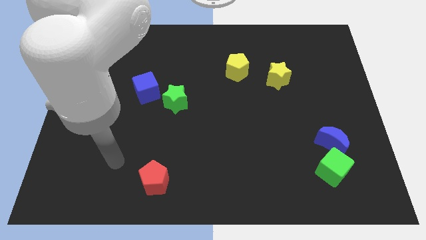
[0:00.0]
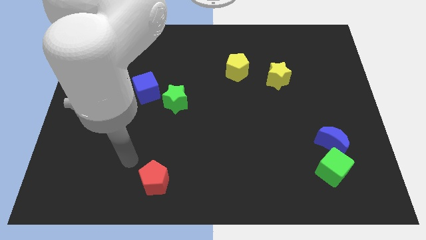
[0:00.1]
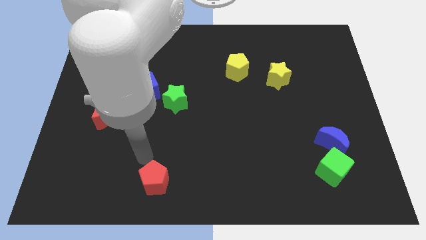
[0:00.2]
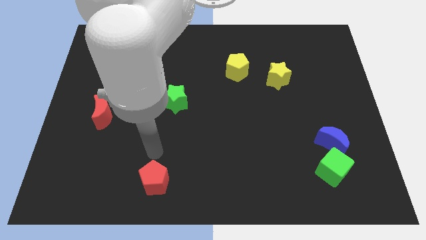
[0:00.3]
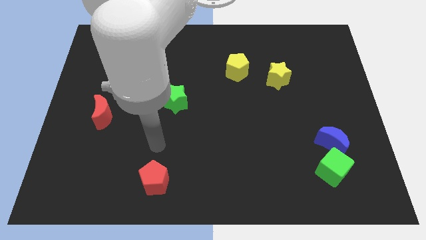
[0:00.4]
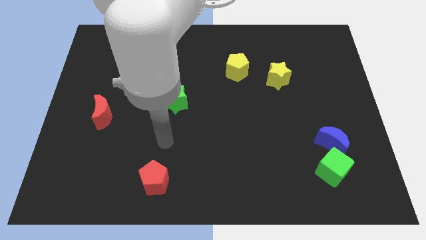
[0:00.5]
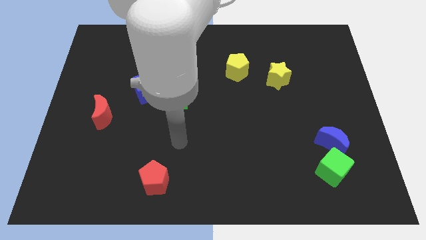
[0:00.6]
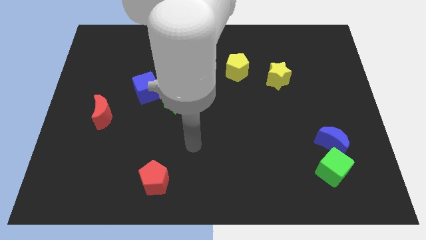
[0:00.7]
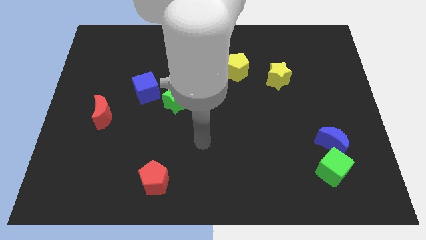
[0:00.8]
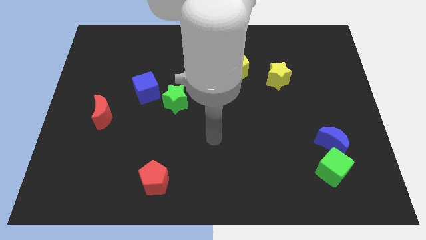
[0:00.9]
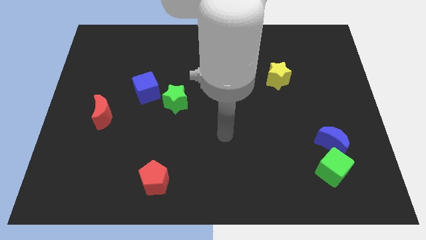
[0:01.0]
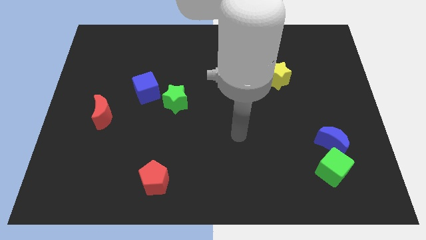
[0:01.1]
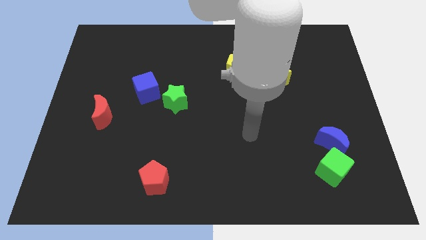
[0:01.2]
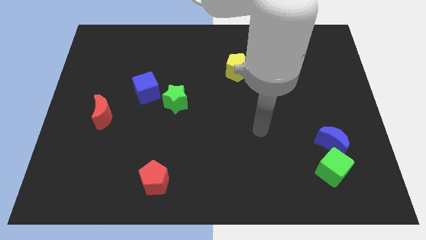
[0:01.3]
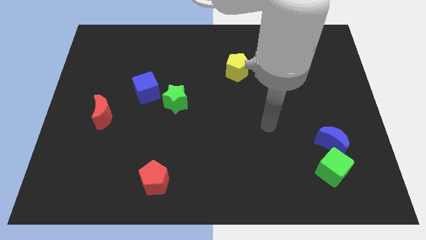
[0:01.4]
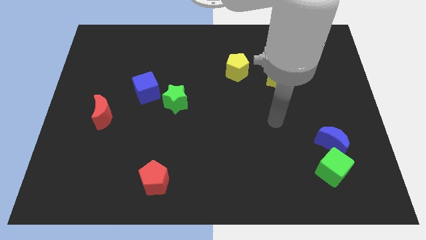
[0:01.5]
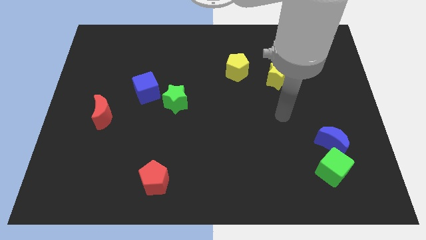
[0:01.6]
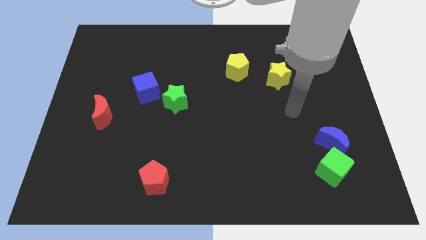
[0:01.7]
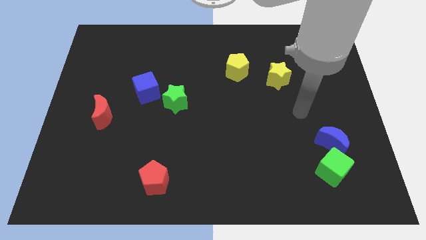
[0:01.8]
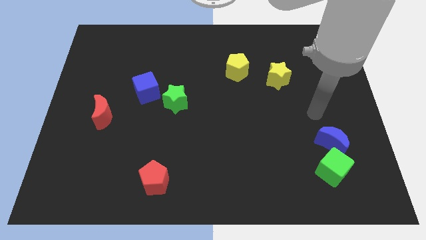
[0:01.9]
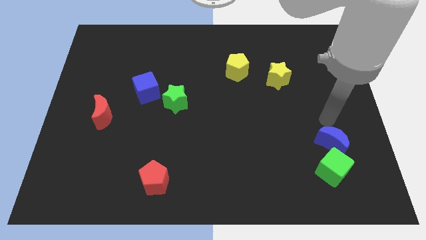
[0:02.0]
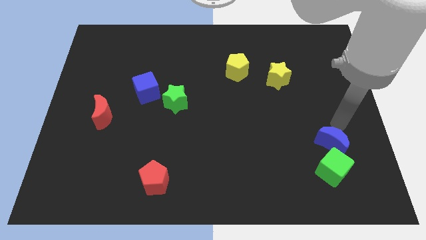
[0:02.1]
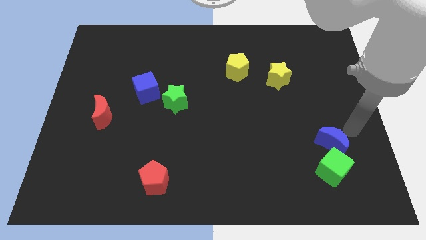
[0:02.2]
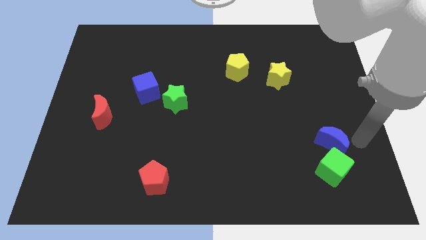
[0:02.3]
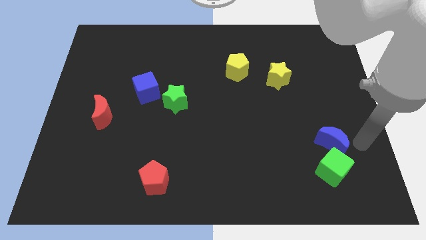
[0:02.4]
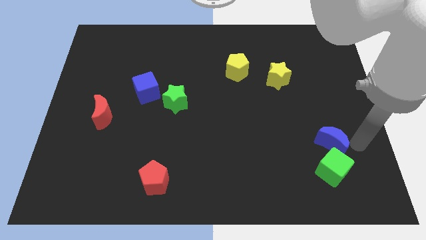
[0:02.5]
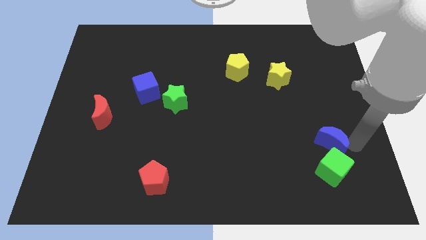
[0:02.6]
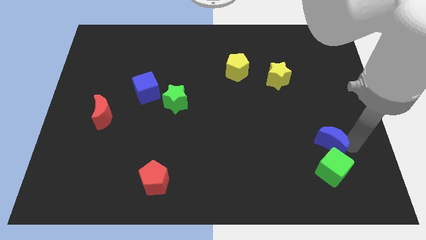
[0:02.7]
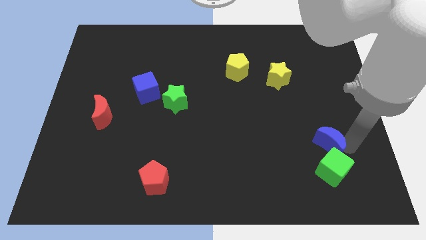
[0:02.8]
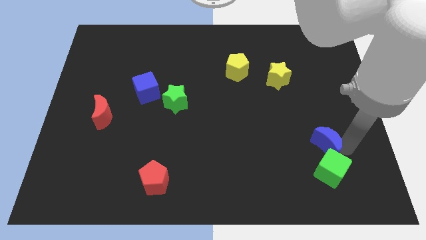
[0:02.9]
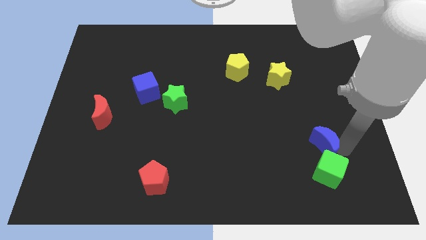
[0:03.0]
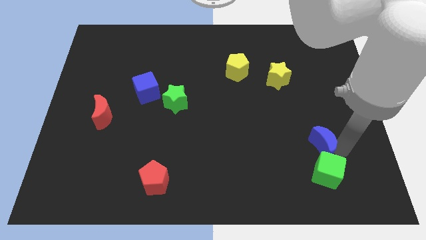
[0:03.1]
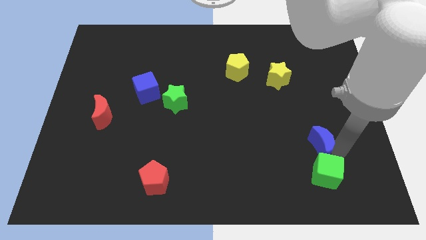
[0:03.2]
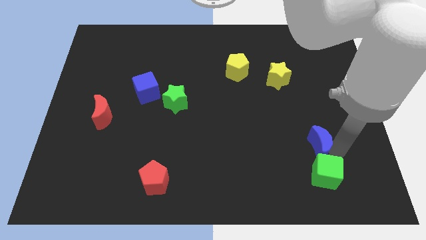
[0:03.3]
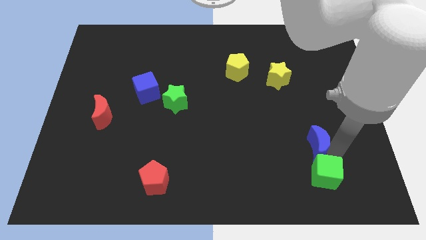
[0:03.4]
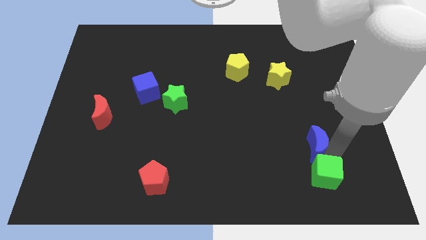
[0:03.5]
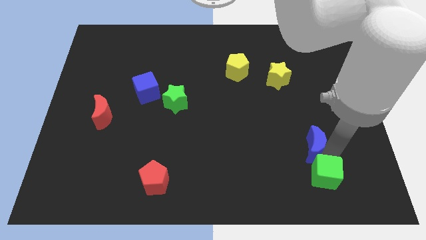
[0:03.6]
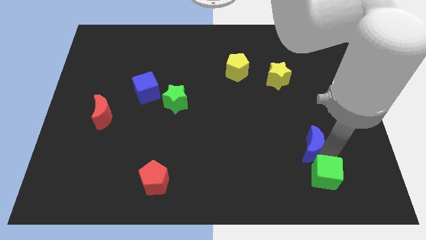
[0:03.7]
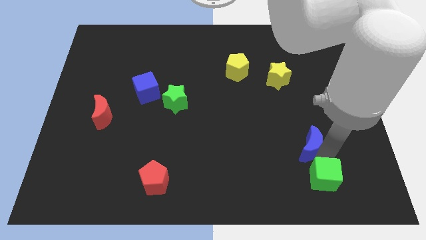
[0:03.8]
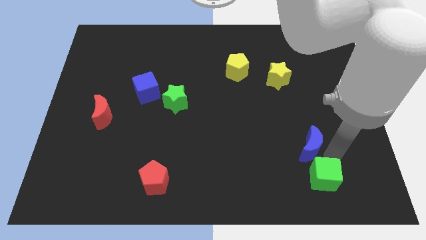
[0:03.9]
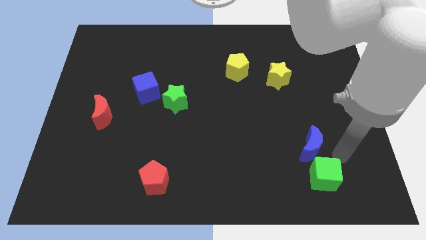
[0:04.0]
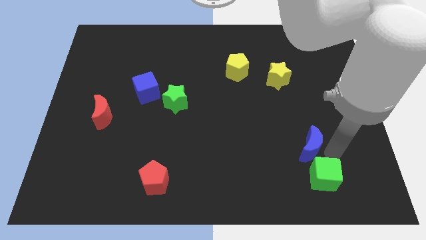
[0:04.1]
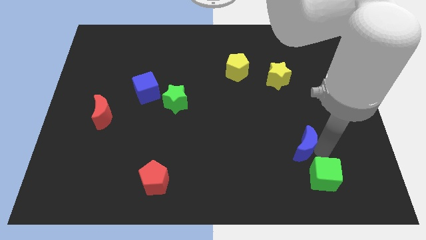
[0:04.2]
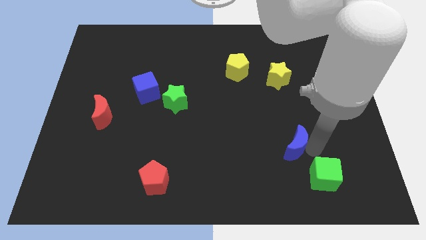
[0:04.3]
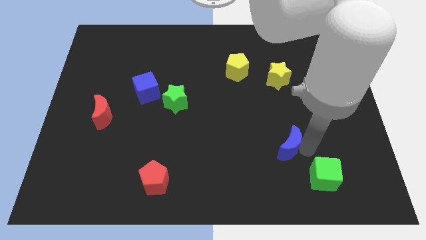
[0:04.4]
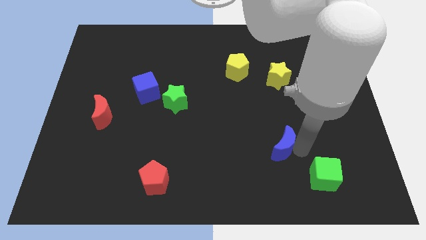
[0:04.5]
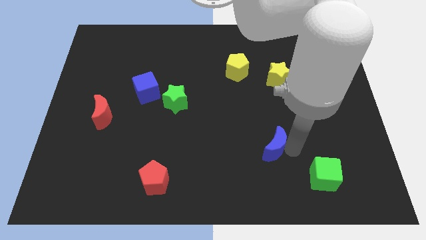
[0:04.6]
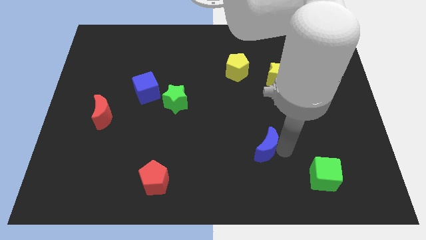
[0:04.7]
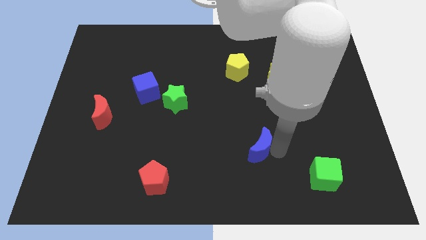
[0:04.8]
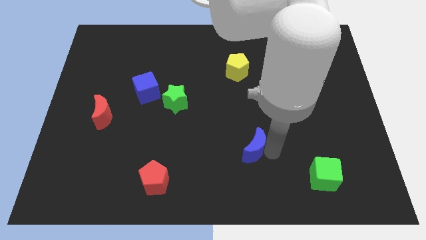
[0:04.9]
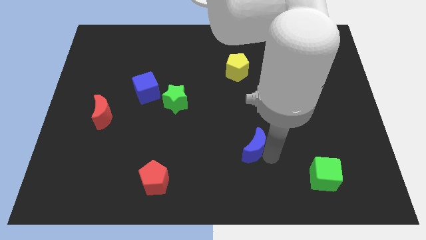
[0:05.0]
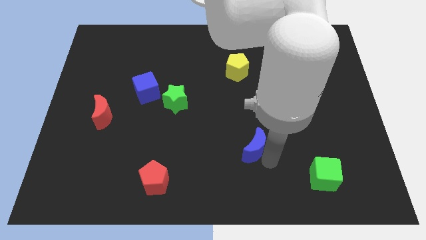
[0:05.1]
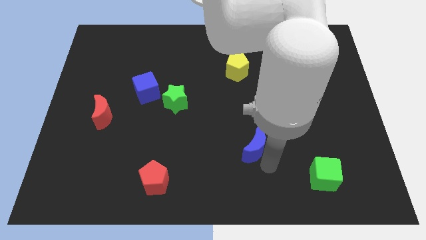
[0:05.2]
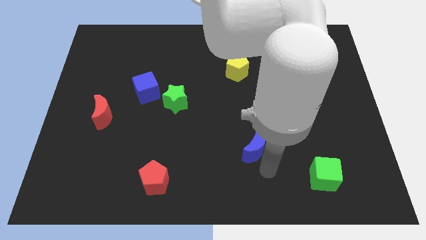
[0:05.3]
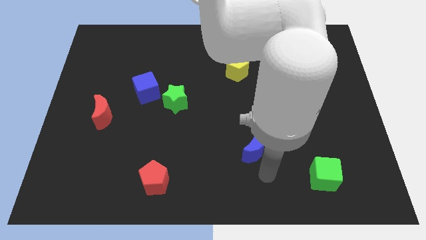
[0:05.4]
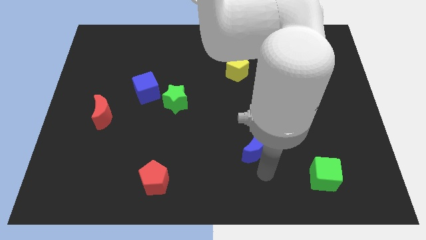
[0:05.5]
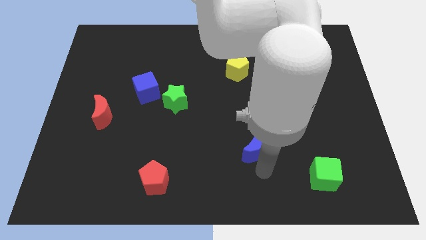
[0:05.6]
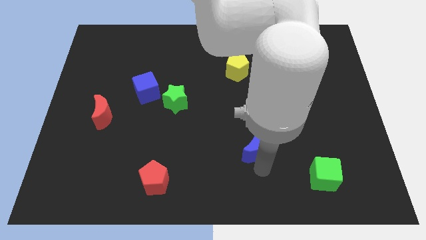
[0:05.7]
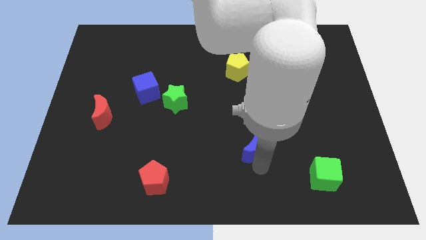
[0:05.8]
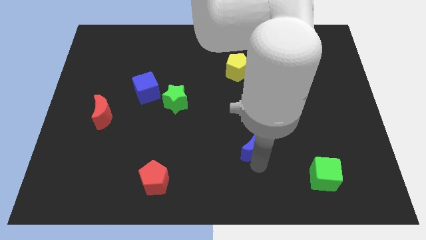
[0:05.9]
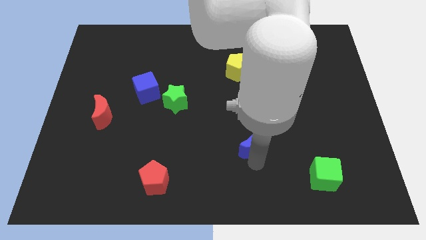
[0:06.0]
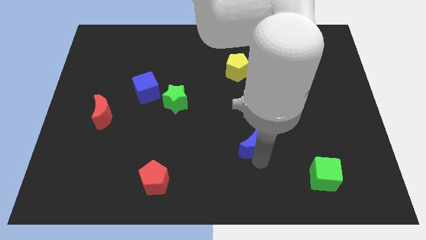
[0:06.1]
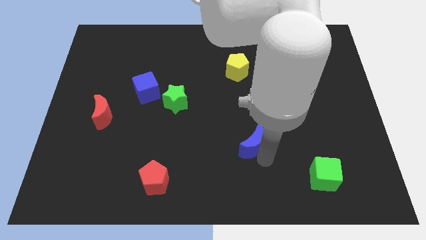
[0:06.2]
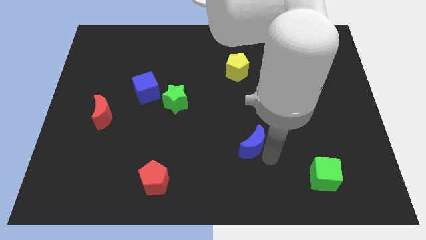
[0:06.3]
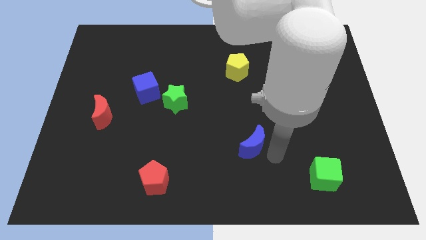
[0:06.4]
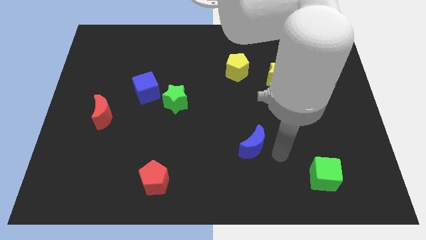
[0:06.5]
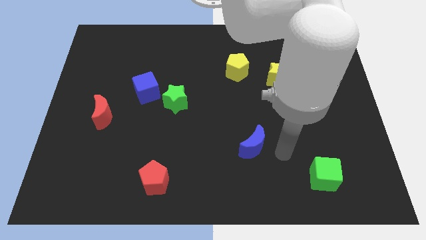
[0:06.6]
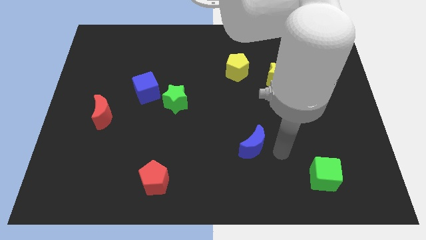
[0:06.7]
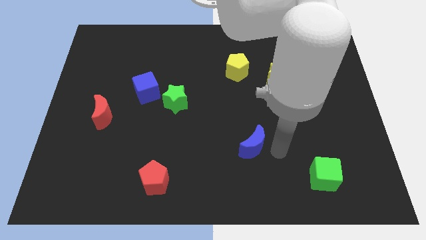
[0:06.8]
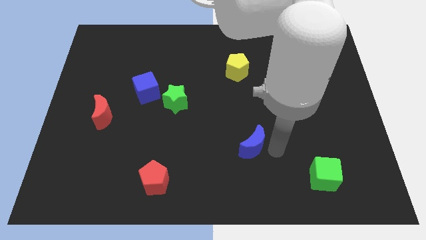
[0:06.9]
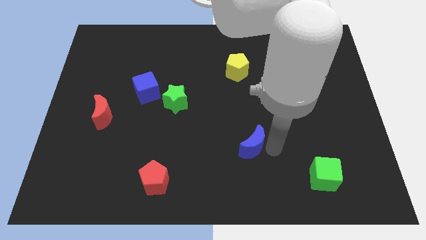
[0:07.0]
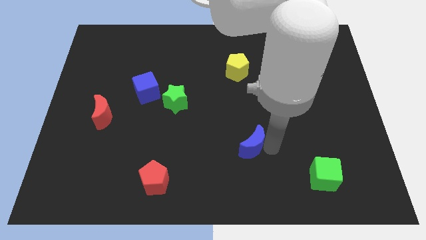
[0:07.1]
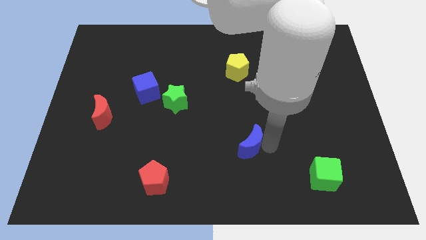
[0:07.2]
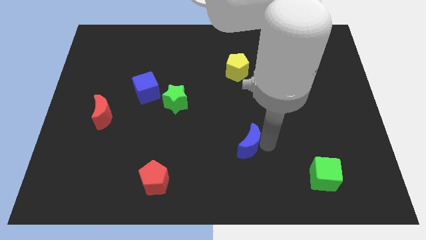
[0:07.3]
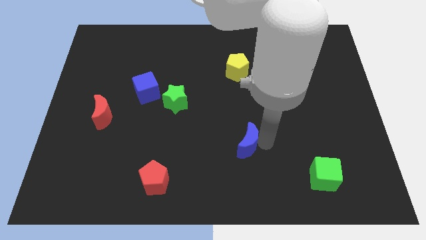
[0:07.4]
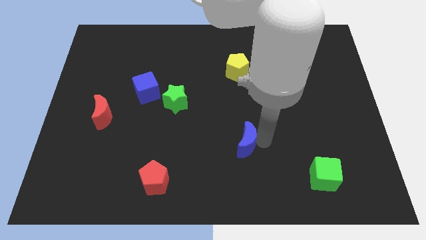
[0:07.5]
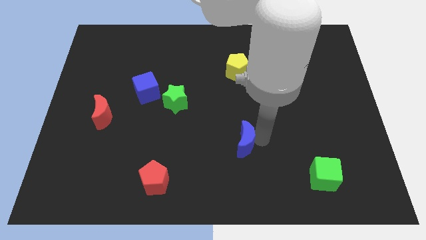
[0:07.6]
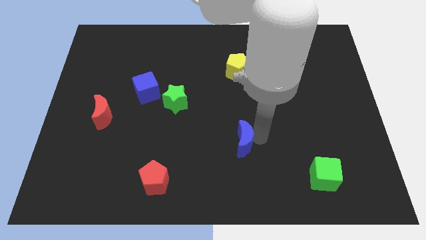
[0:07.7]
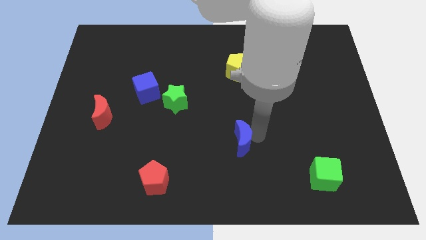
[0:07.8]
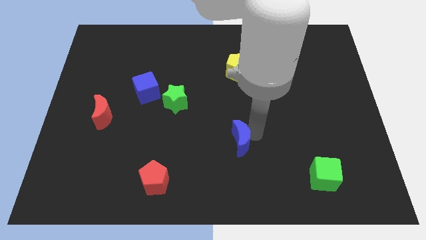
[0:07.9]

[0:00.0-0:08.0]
slide the blue moon to the left
